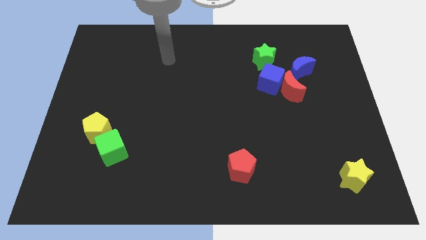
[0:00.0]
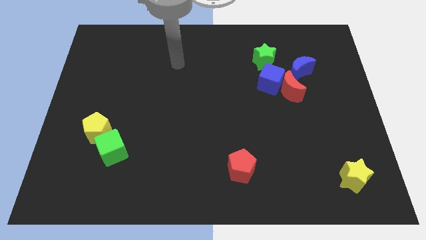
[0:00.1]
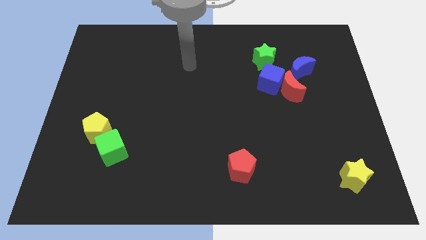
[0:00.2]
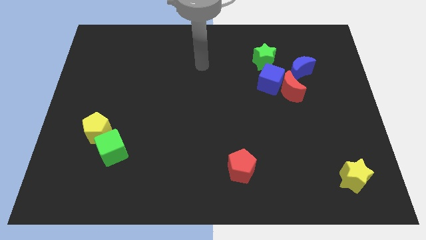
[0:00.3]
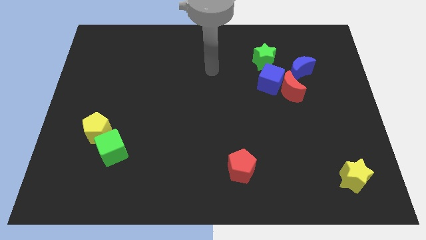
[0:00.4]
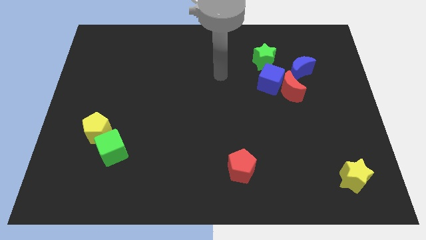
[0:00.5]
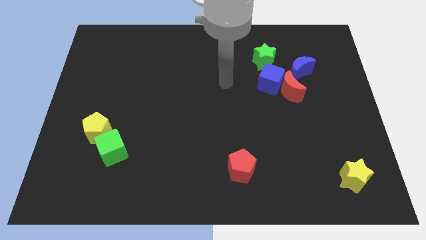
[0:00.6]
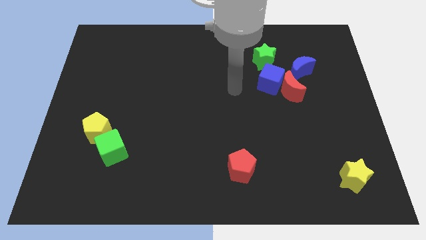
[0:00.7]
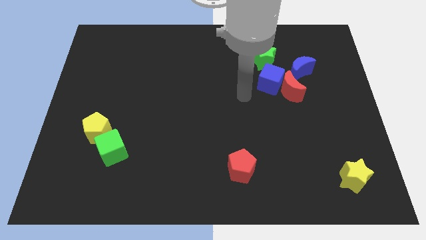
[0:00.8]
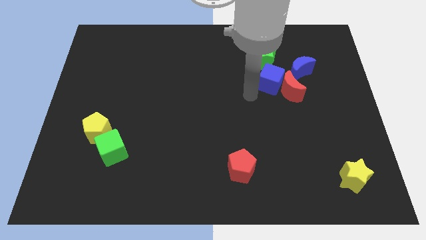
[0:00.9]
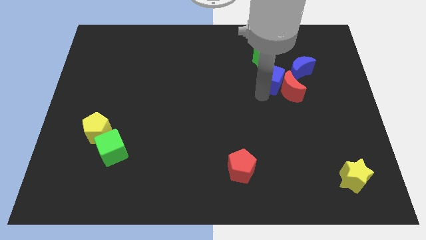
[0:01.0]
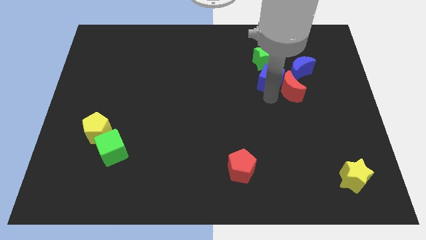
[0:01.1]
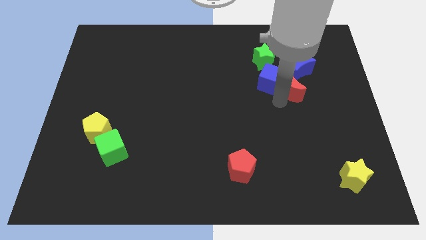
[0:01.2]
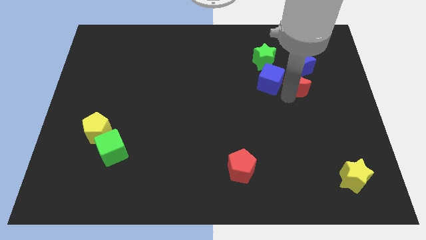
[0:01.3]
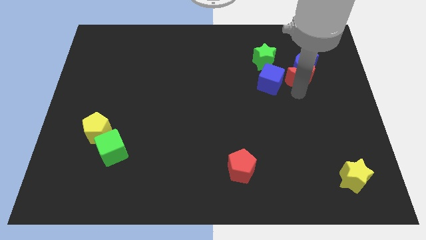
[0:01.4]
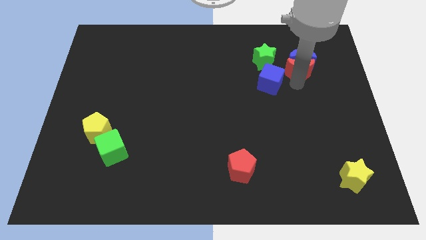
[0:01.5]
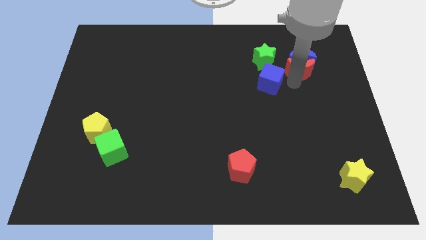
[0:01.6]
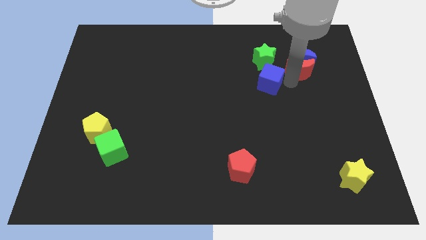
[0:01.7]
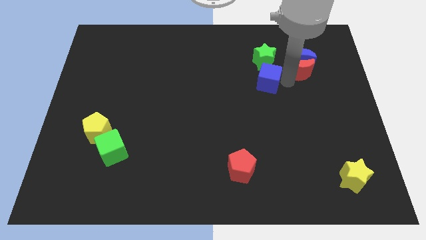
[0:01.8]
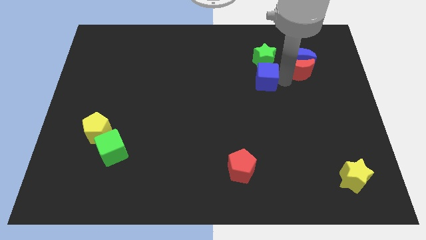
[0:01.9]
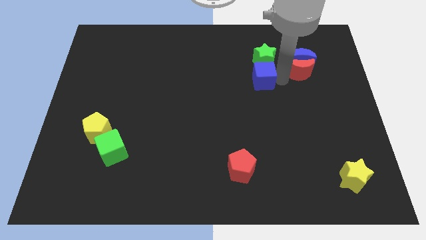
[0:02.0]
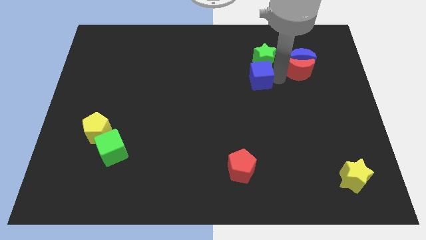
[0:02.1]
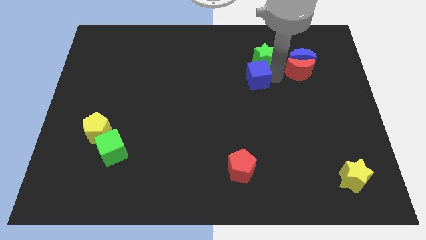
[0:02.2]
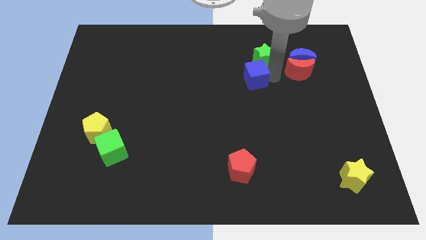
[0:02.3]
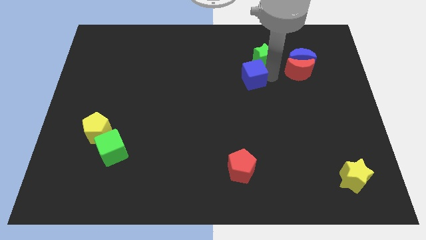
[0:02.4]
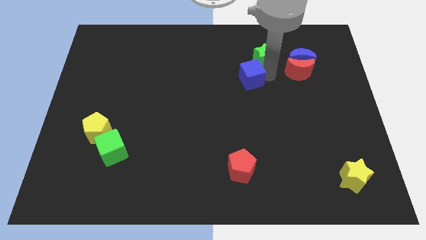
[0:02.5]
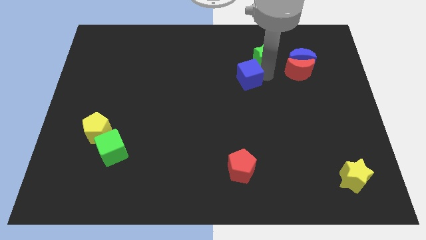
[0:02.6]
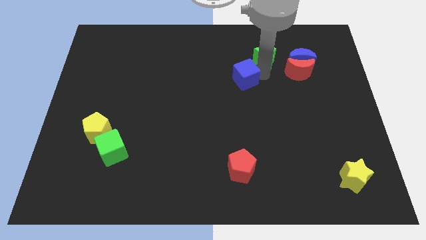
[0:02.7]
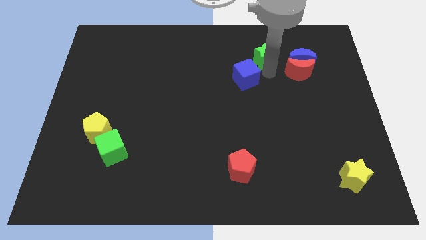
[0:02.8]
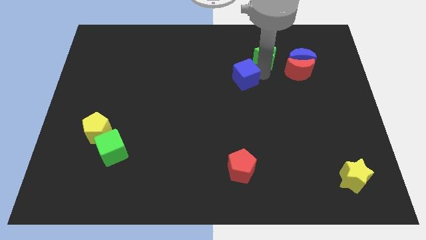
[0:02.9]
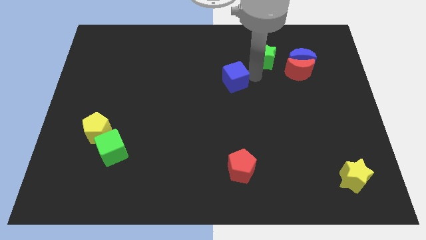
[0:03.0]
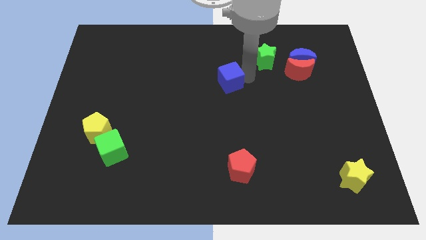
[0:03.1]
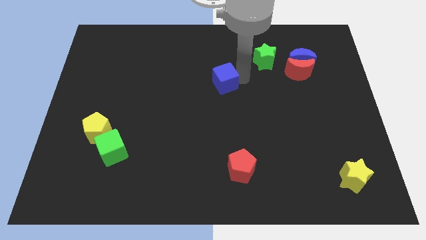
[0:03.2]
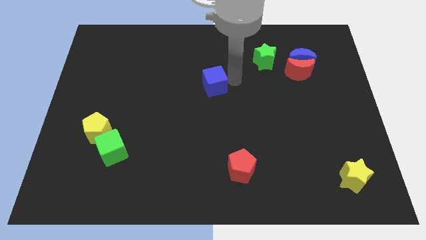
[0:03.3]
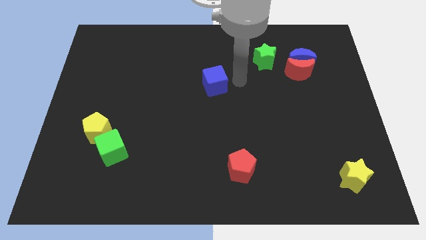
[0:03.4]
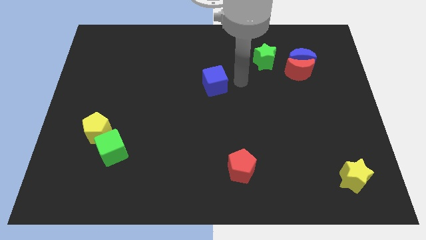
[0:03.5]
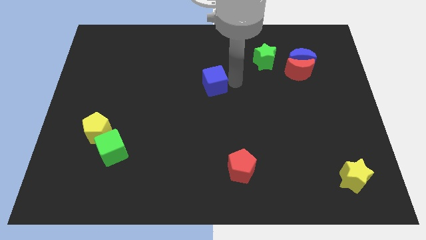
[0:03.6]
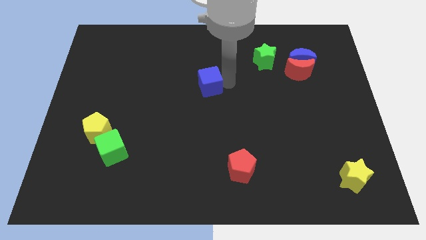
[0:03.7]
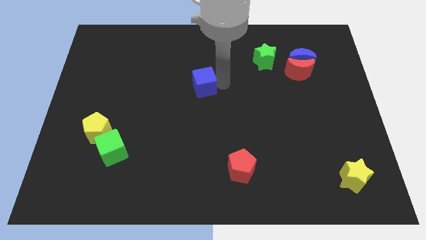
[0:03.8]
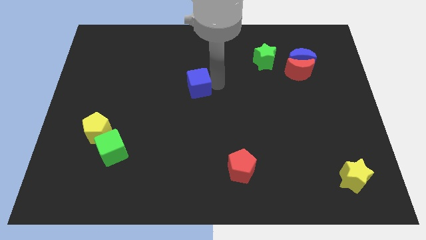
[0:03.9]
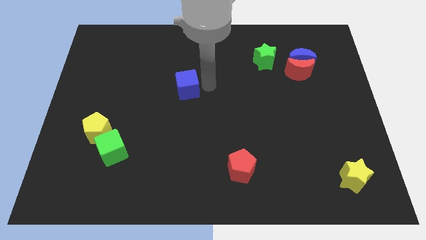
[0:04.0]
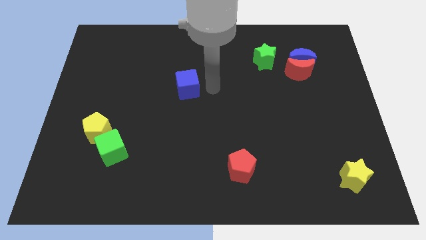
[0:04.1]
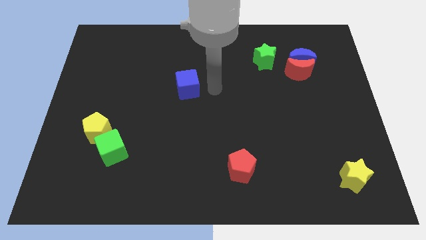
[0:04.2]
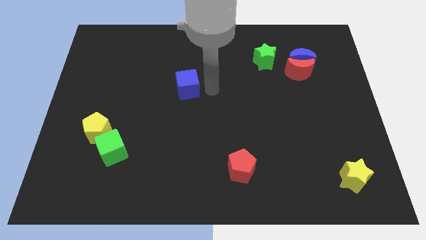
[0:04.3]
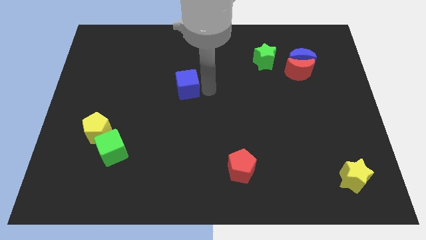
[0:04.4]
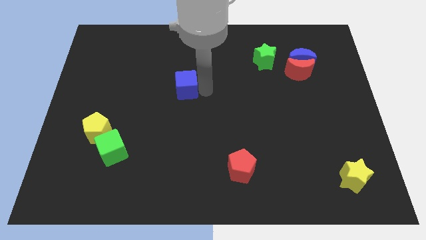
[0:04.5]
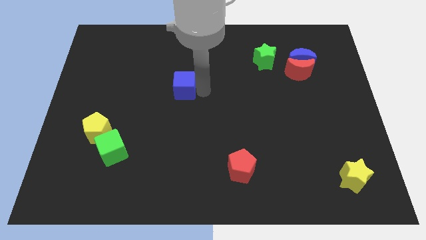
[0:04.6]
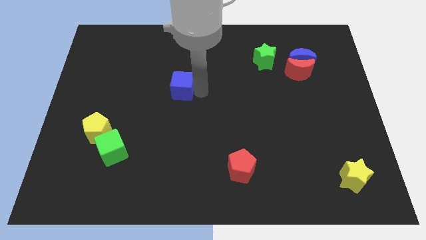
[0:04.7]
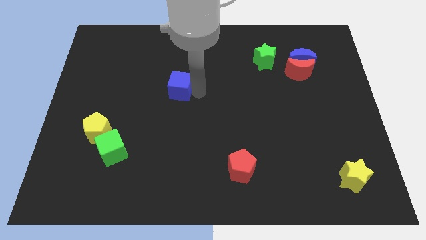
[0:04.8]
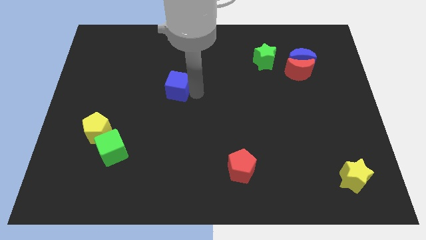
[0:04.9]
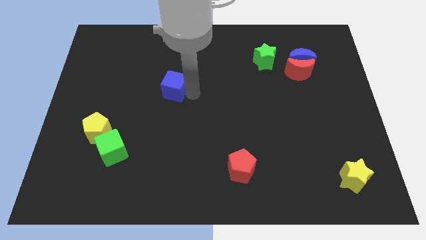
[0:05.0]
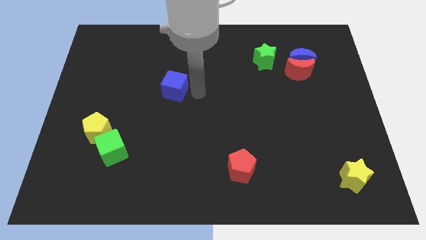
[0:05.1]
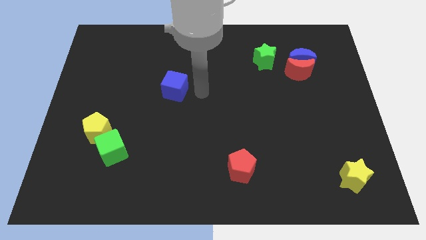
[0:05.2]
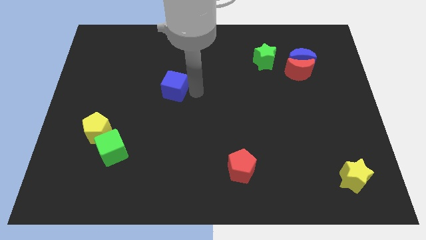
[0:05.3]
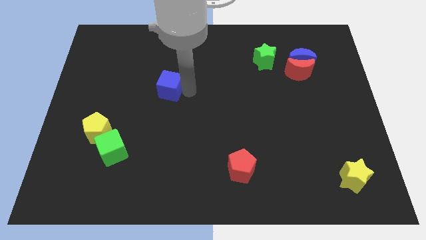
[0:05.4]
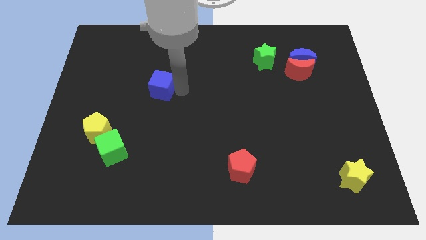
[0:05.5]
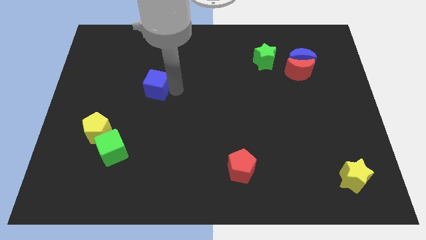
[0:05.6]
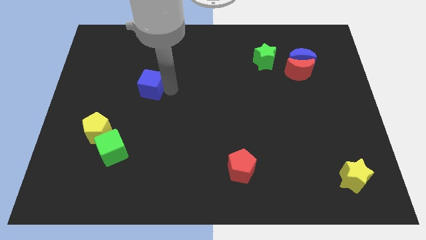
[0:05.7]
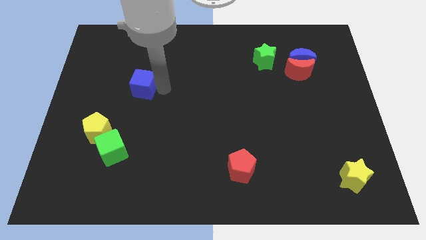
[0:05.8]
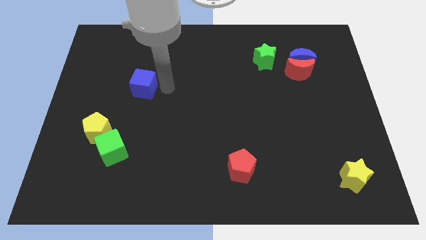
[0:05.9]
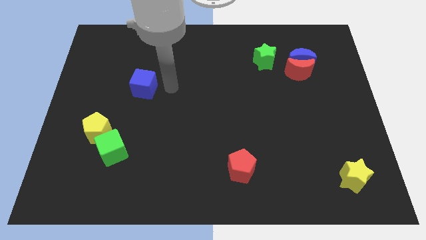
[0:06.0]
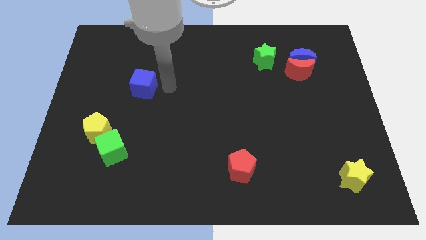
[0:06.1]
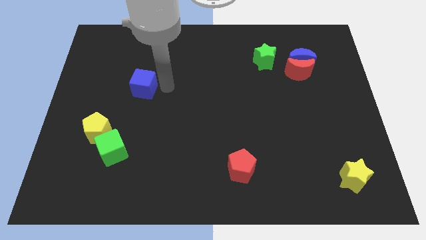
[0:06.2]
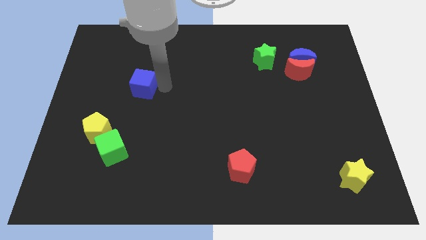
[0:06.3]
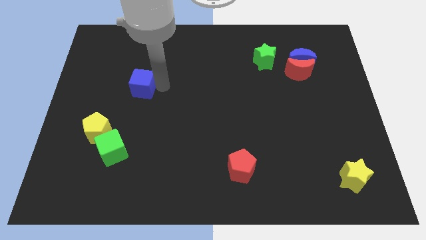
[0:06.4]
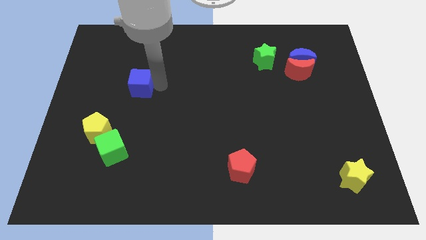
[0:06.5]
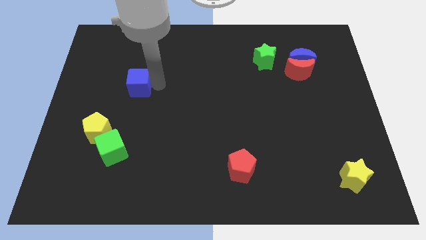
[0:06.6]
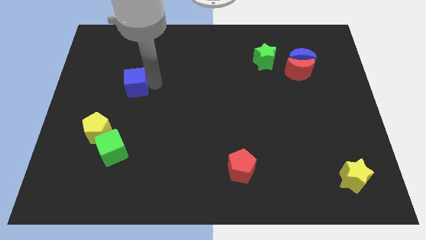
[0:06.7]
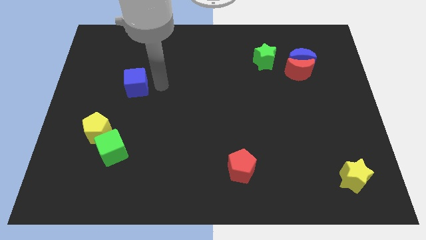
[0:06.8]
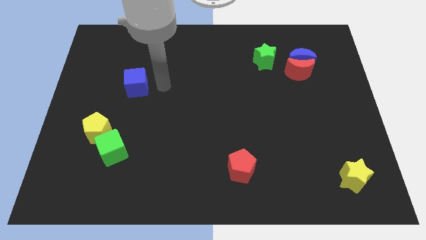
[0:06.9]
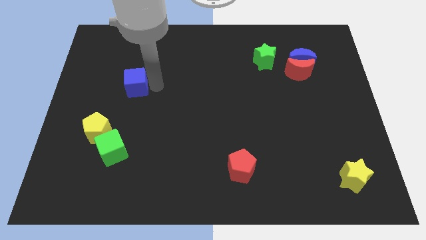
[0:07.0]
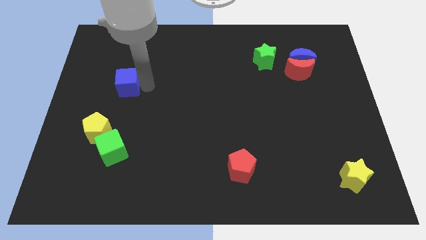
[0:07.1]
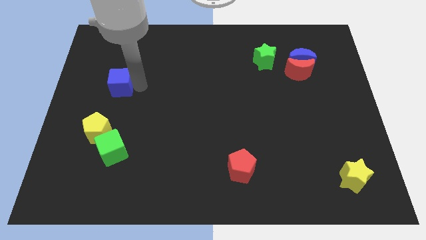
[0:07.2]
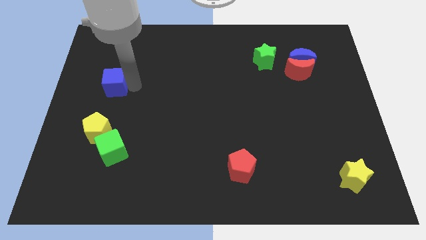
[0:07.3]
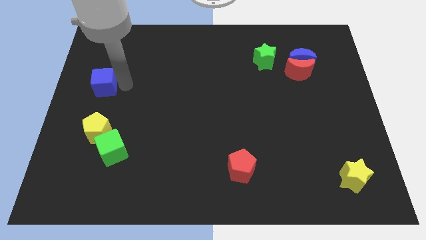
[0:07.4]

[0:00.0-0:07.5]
slide the blue cube to the center left
